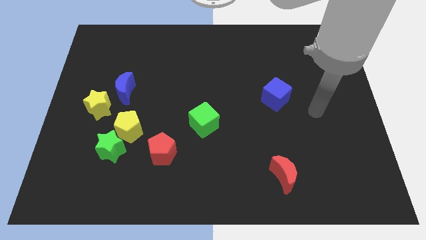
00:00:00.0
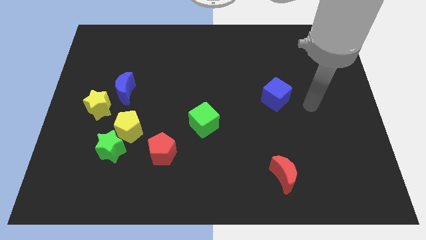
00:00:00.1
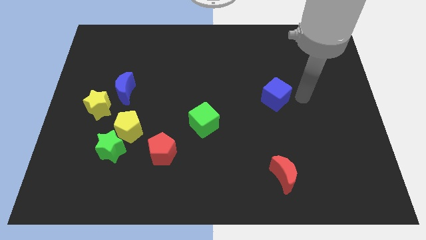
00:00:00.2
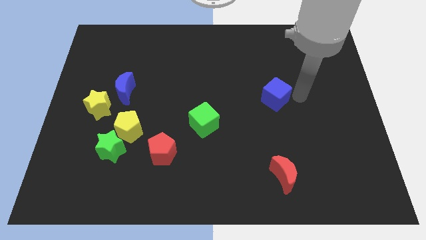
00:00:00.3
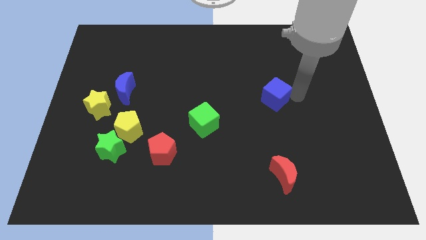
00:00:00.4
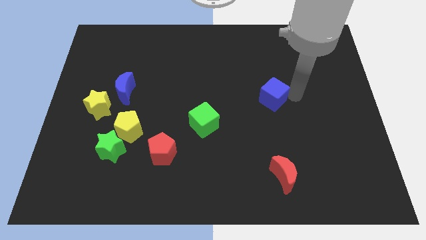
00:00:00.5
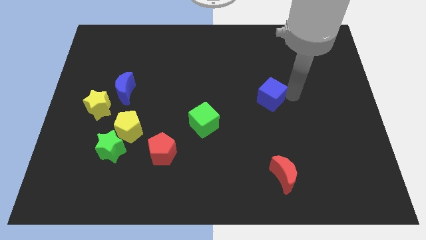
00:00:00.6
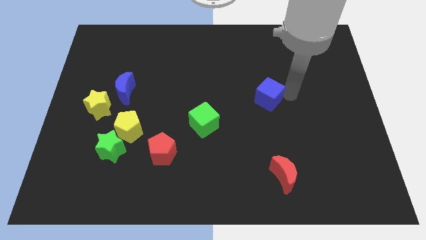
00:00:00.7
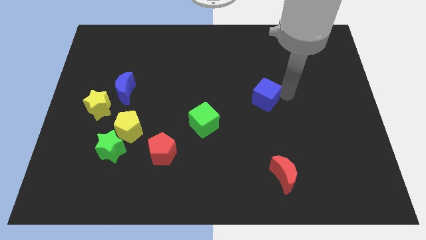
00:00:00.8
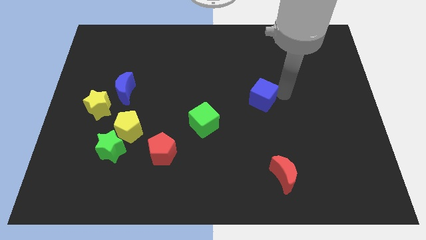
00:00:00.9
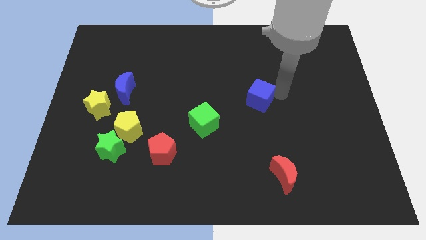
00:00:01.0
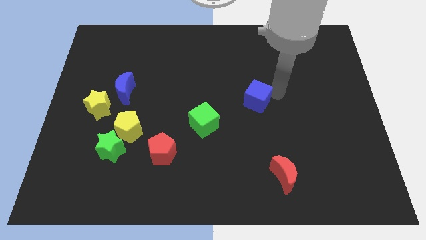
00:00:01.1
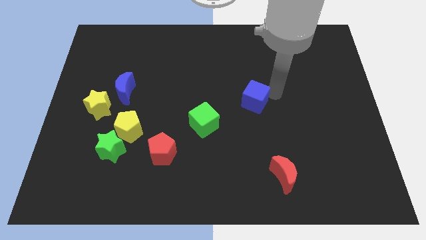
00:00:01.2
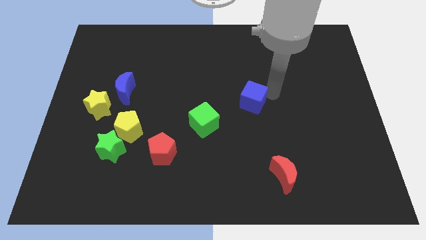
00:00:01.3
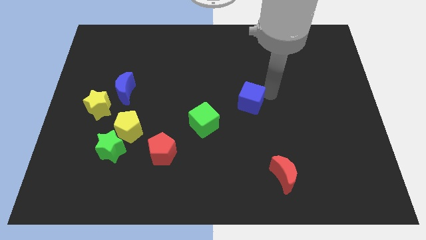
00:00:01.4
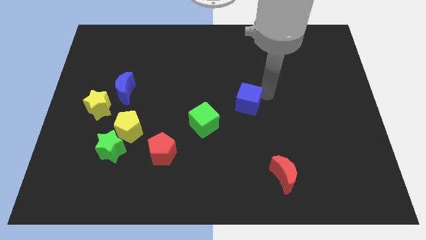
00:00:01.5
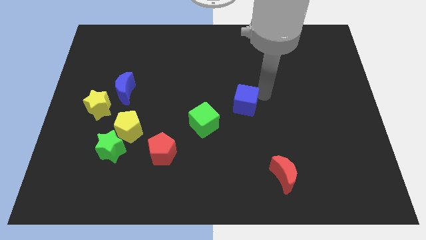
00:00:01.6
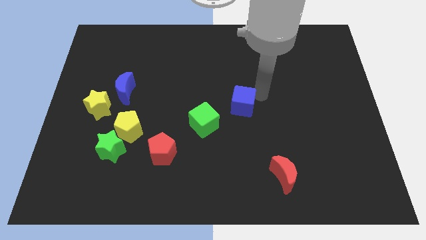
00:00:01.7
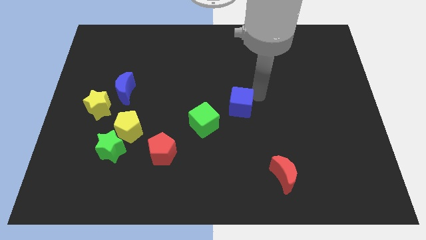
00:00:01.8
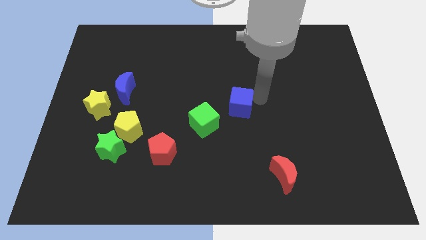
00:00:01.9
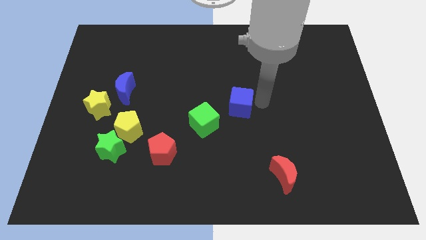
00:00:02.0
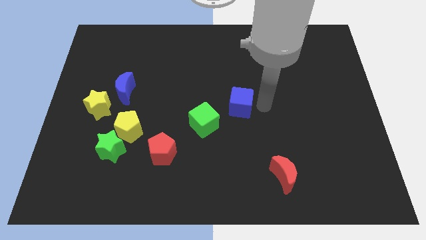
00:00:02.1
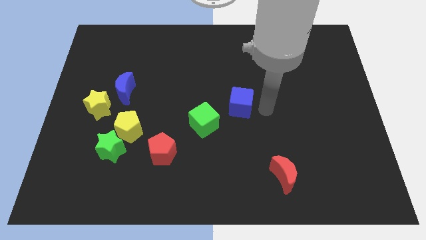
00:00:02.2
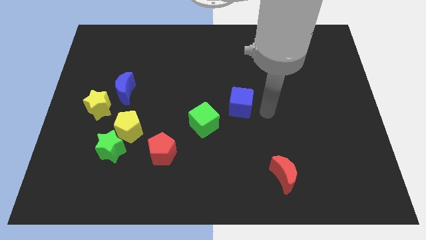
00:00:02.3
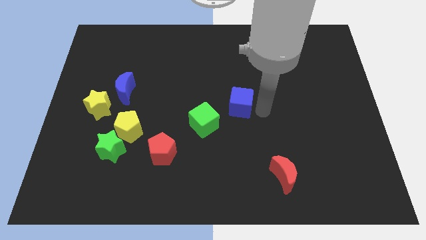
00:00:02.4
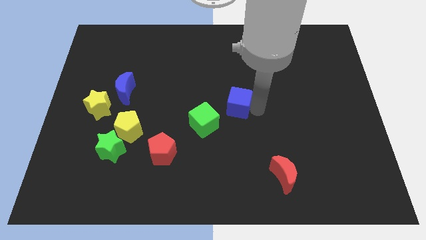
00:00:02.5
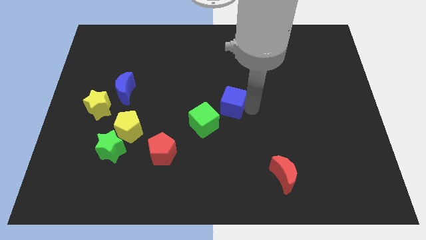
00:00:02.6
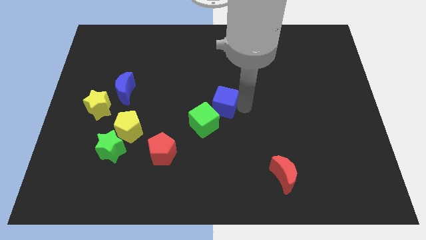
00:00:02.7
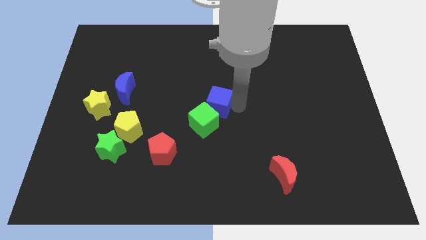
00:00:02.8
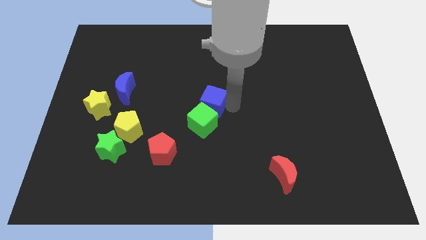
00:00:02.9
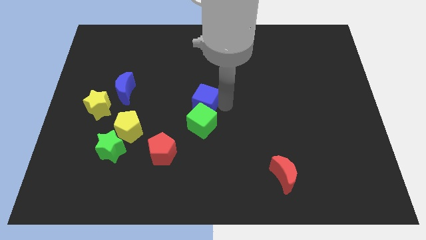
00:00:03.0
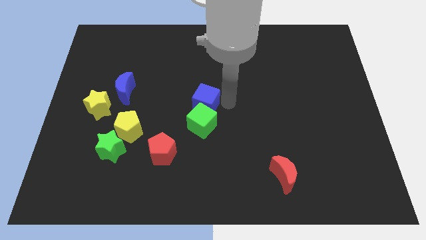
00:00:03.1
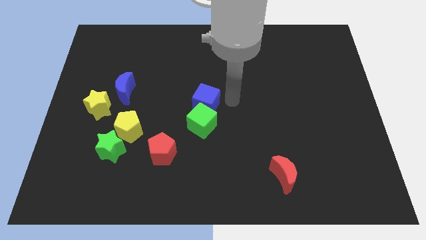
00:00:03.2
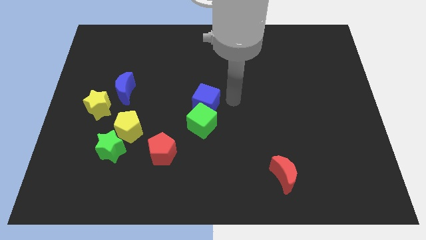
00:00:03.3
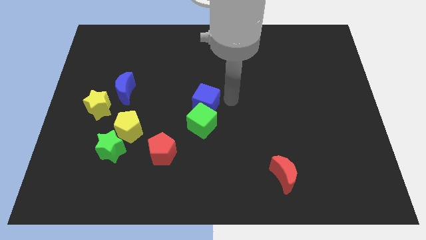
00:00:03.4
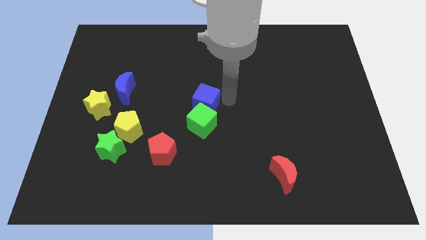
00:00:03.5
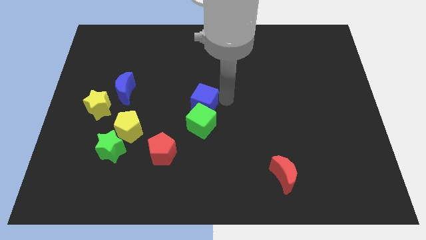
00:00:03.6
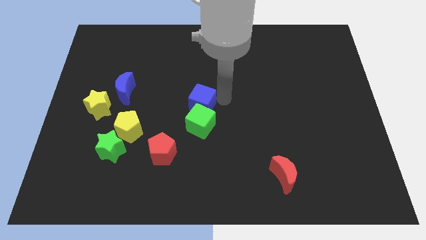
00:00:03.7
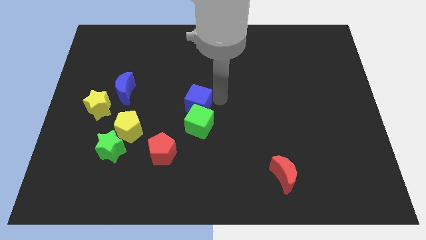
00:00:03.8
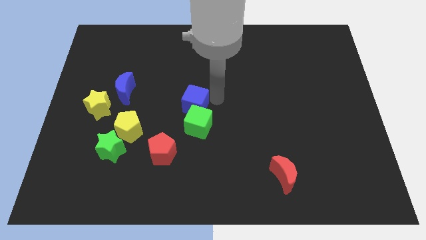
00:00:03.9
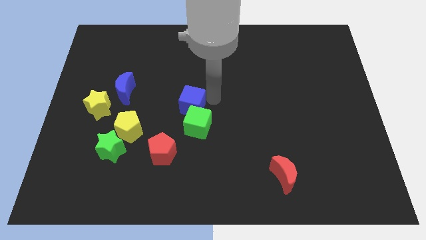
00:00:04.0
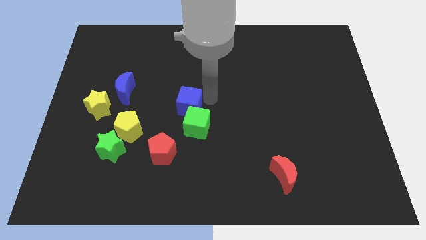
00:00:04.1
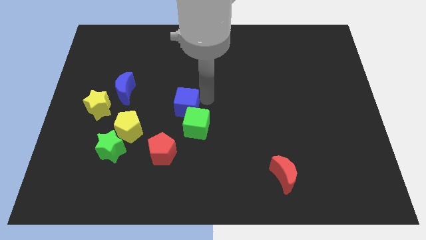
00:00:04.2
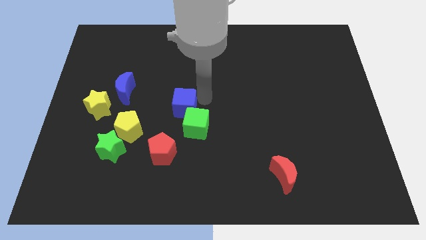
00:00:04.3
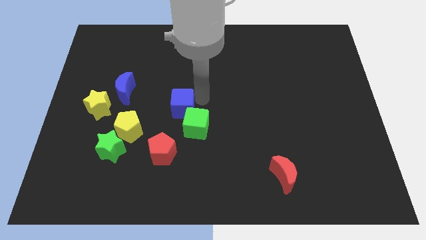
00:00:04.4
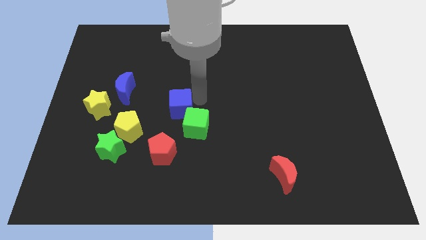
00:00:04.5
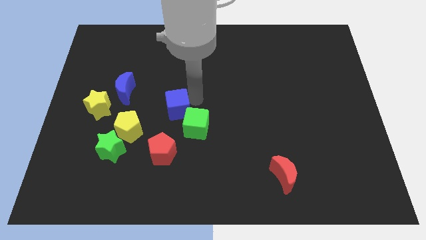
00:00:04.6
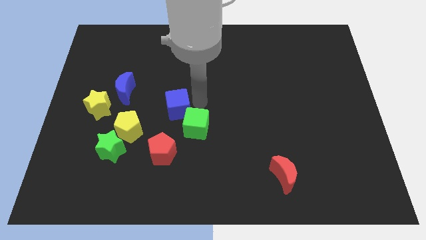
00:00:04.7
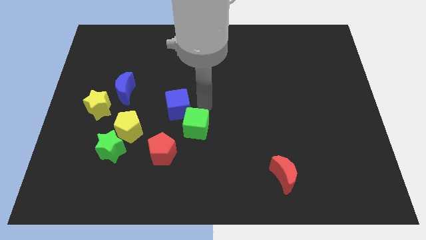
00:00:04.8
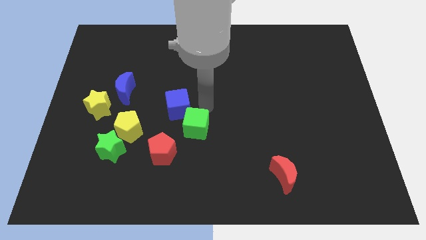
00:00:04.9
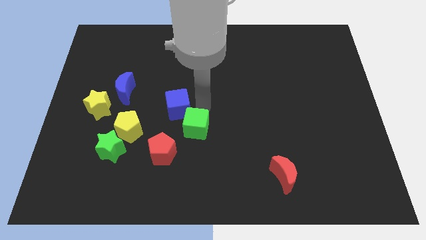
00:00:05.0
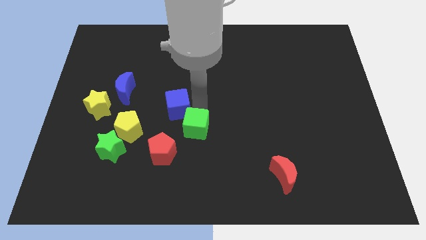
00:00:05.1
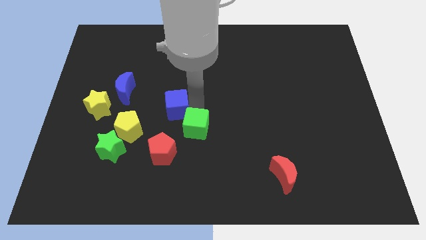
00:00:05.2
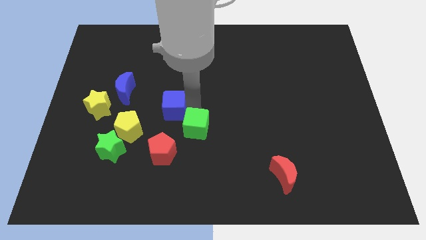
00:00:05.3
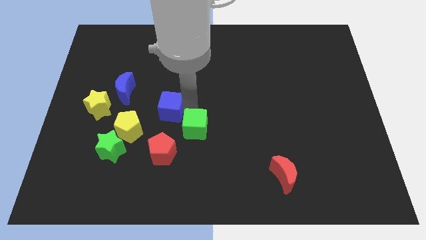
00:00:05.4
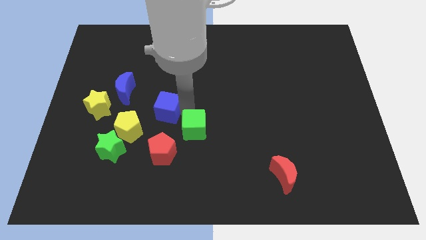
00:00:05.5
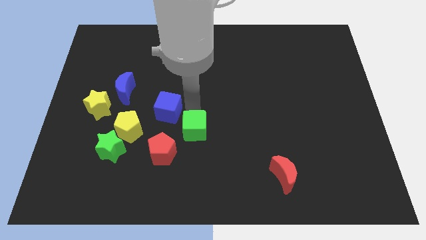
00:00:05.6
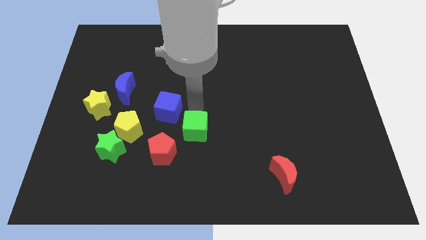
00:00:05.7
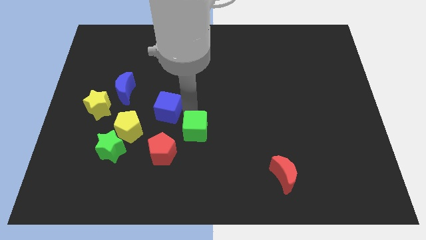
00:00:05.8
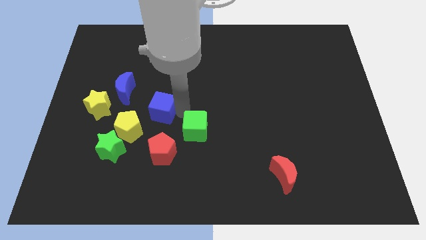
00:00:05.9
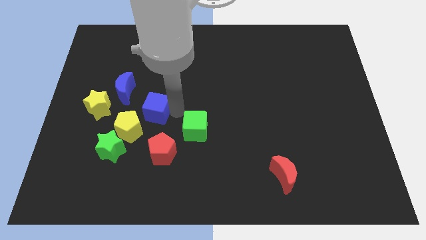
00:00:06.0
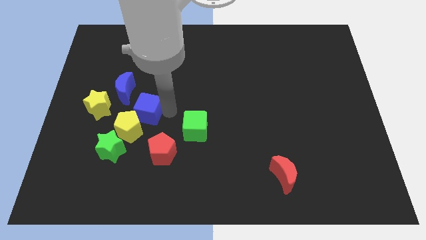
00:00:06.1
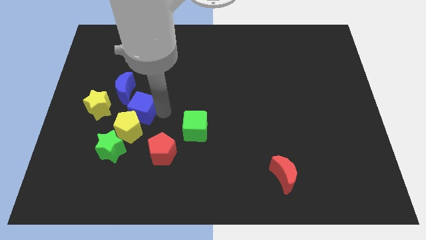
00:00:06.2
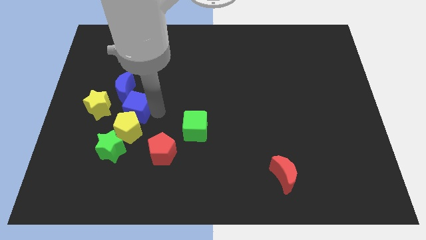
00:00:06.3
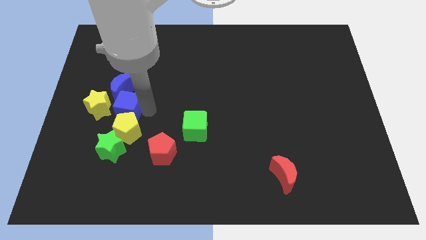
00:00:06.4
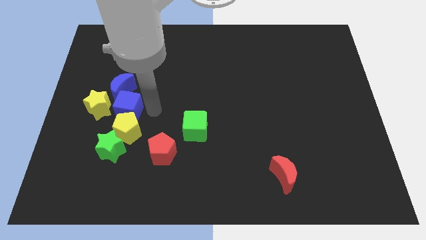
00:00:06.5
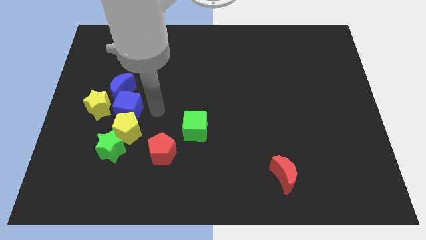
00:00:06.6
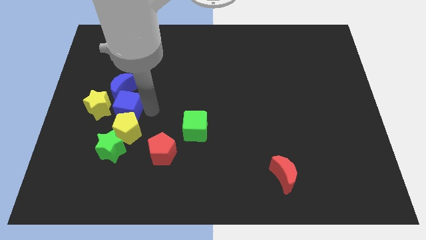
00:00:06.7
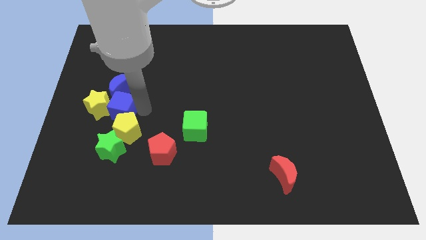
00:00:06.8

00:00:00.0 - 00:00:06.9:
slide the blue cube close to the yellow star

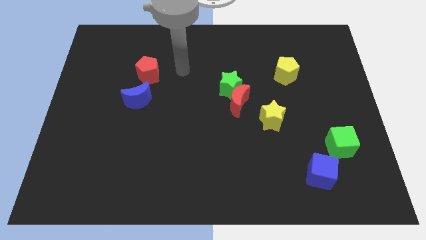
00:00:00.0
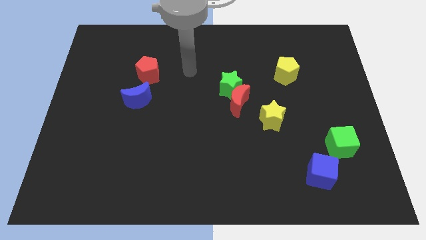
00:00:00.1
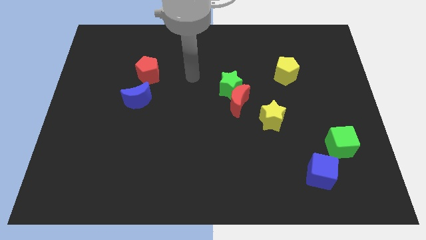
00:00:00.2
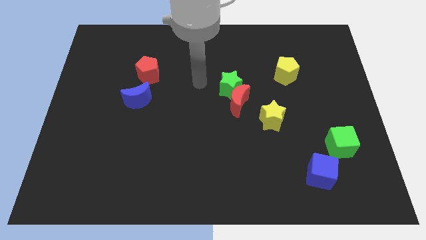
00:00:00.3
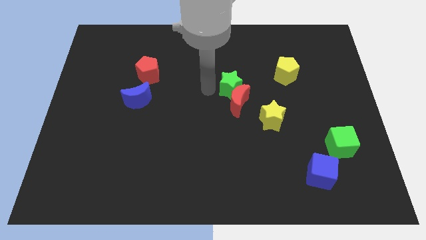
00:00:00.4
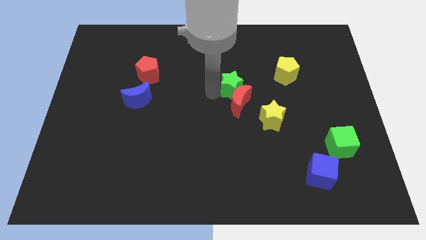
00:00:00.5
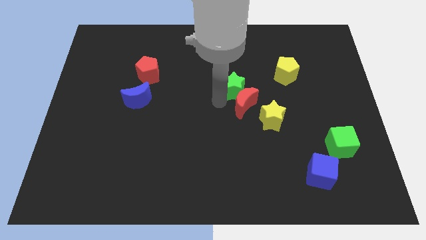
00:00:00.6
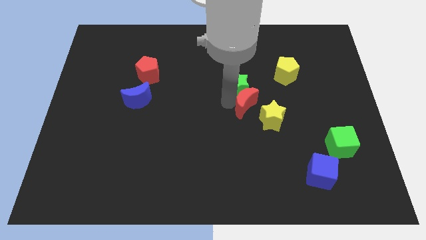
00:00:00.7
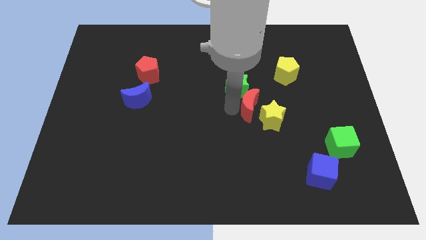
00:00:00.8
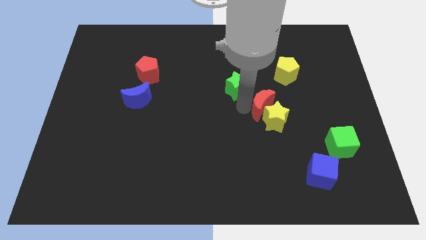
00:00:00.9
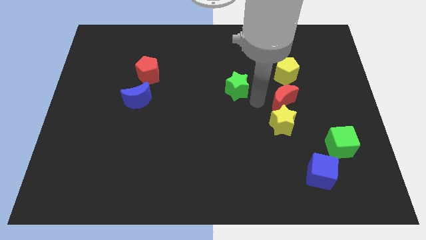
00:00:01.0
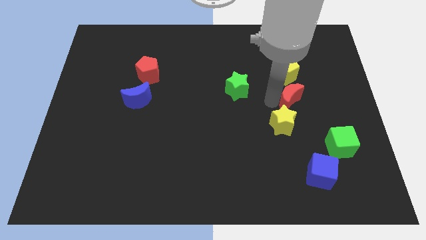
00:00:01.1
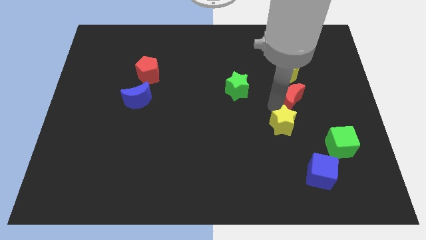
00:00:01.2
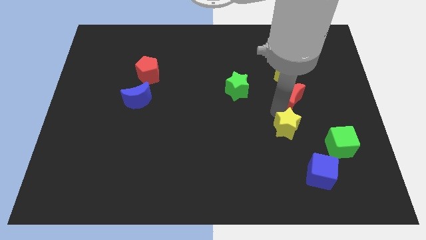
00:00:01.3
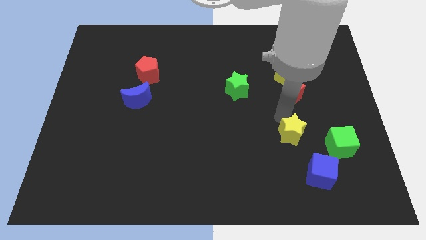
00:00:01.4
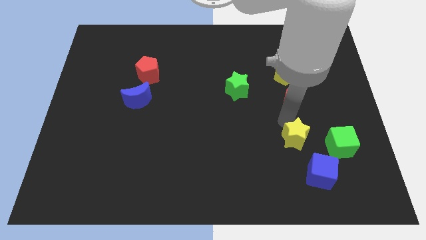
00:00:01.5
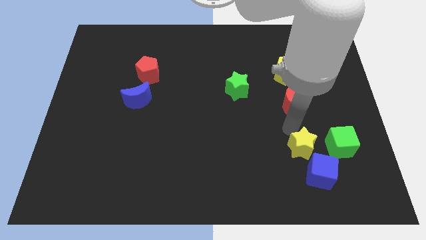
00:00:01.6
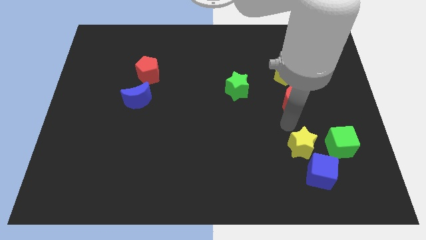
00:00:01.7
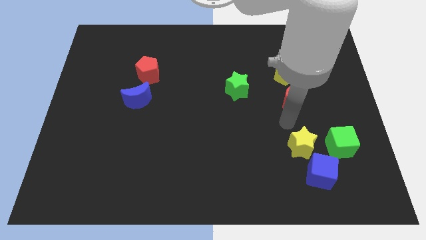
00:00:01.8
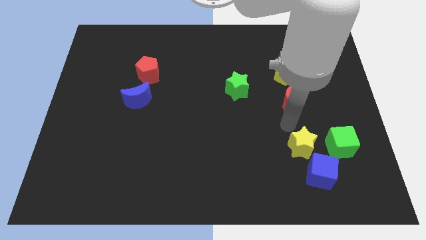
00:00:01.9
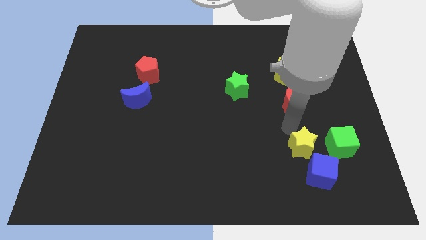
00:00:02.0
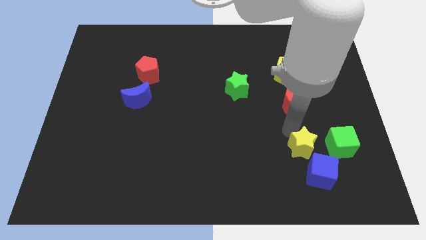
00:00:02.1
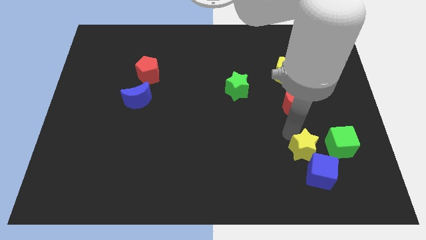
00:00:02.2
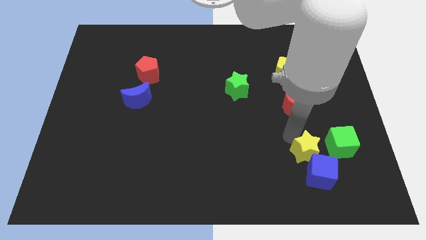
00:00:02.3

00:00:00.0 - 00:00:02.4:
slide the yellow star towards the blue cube
